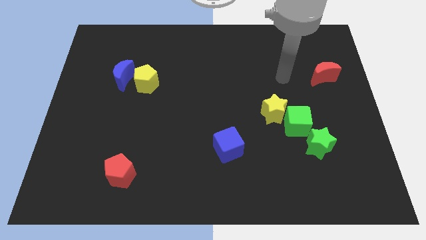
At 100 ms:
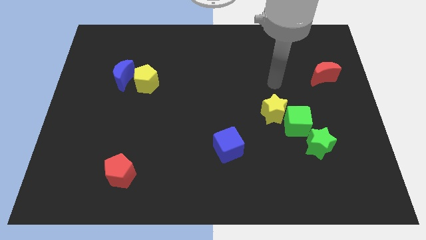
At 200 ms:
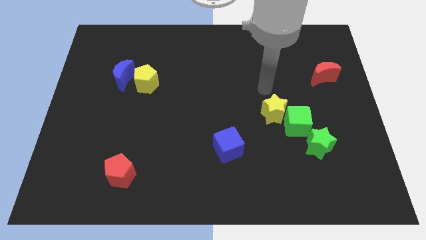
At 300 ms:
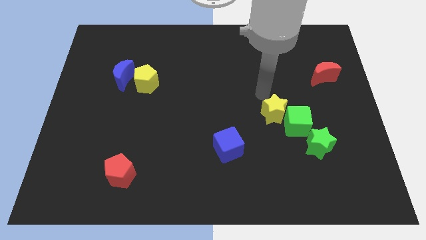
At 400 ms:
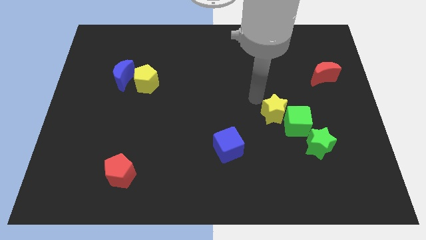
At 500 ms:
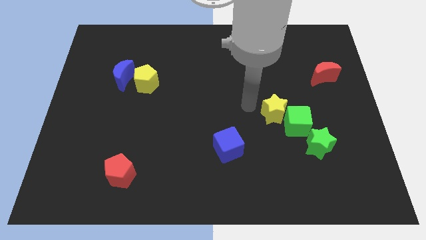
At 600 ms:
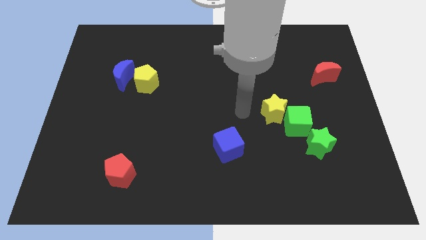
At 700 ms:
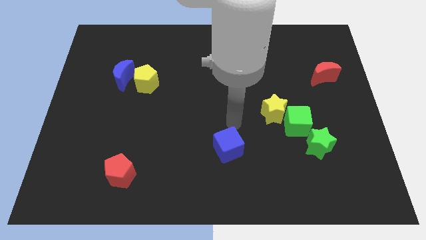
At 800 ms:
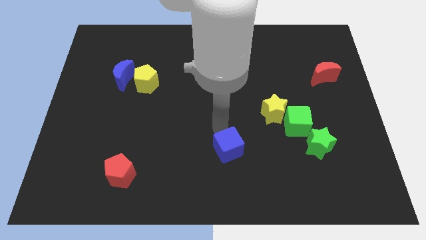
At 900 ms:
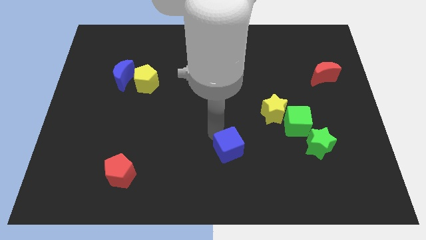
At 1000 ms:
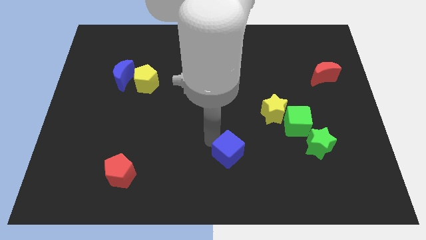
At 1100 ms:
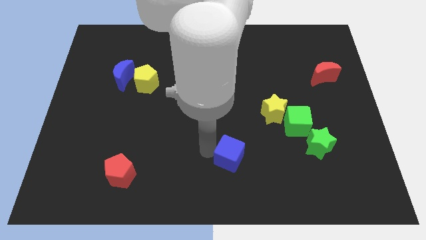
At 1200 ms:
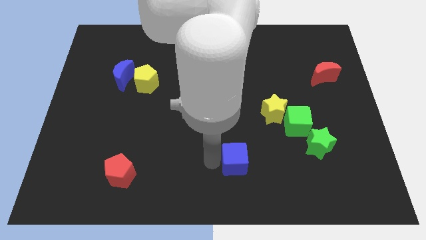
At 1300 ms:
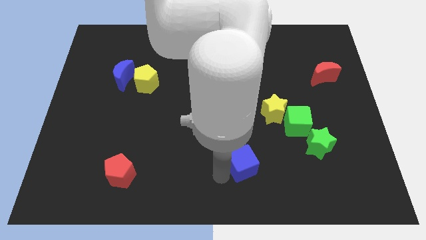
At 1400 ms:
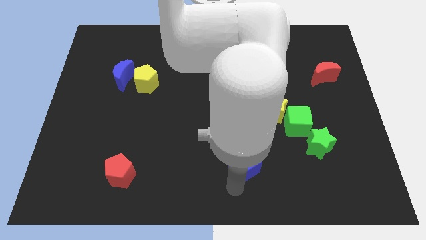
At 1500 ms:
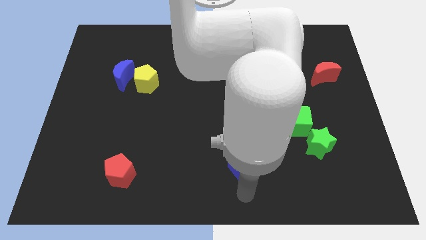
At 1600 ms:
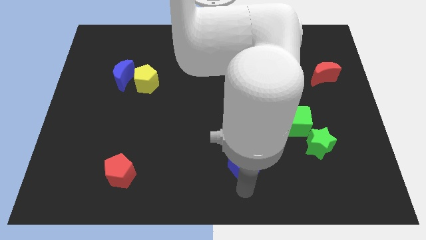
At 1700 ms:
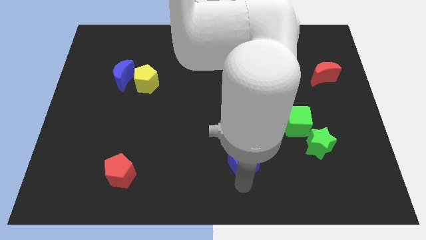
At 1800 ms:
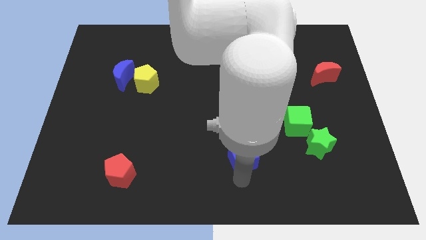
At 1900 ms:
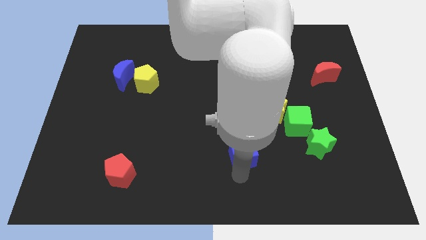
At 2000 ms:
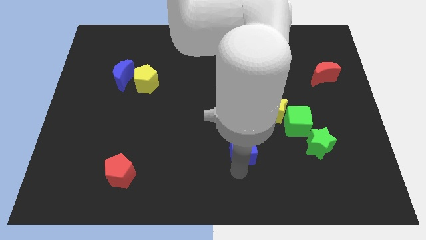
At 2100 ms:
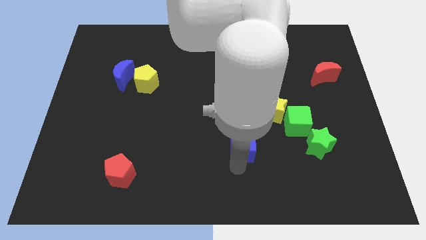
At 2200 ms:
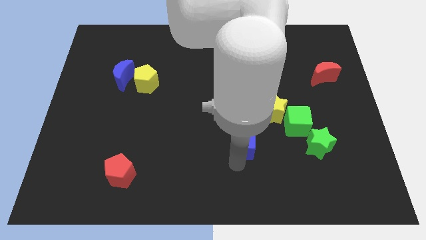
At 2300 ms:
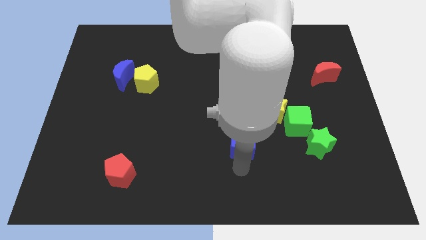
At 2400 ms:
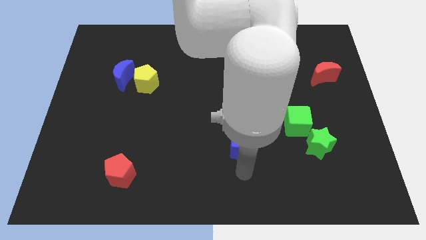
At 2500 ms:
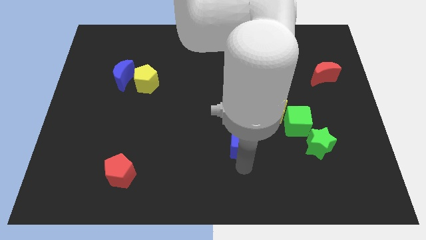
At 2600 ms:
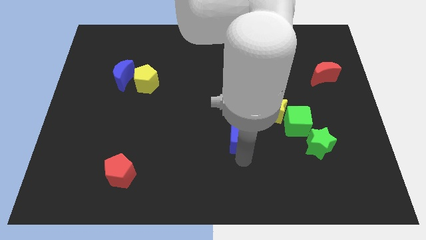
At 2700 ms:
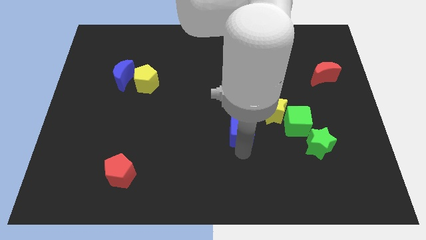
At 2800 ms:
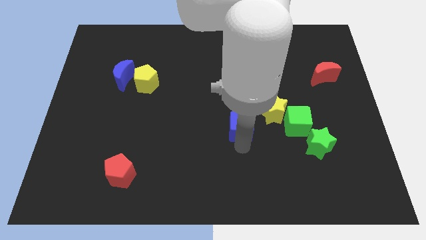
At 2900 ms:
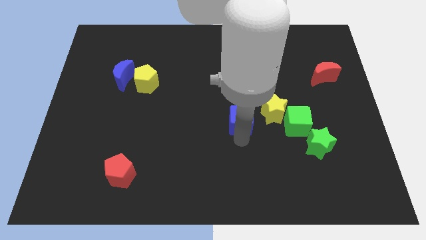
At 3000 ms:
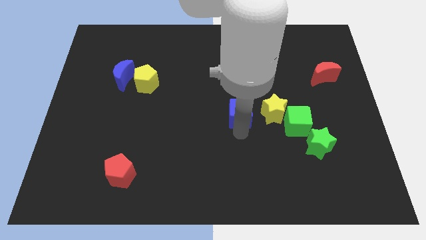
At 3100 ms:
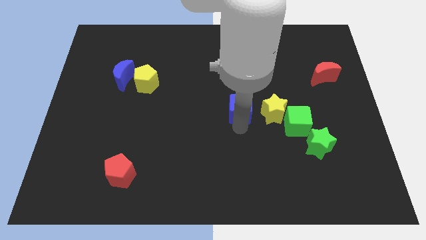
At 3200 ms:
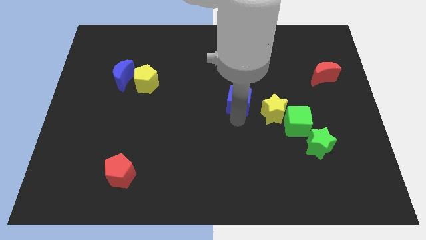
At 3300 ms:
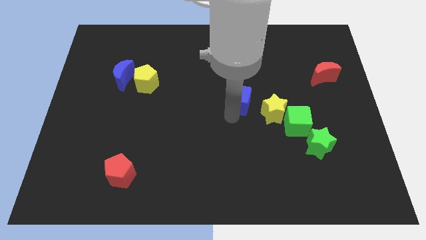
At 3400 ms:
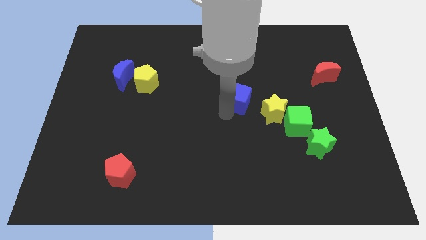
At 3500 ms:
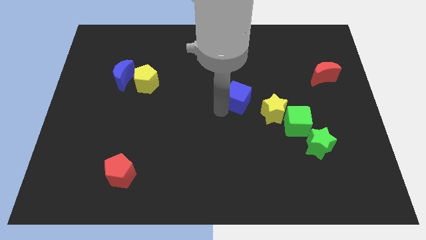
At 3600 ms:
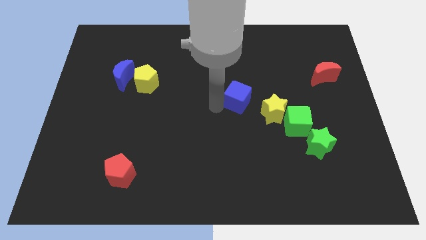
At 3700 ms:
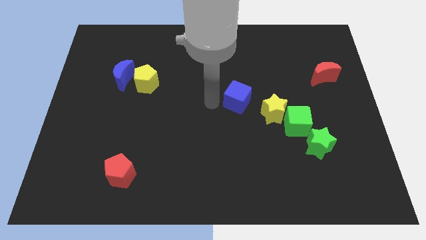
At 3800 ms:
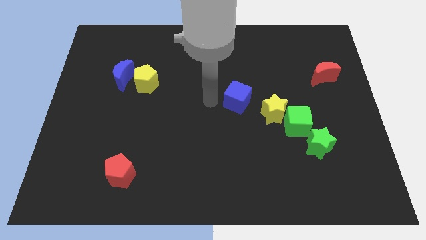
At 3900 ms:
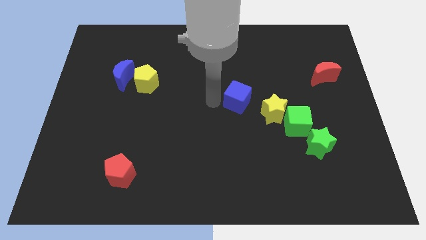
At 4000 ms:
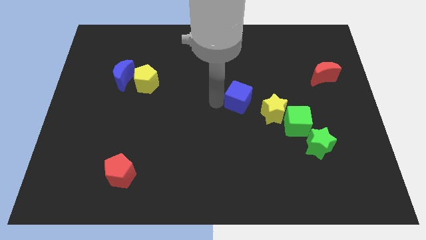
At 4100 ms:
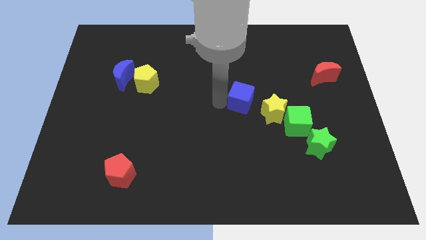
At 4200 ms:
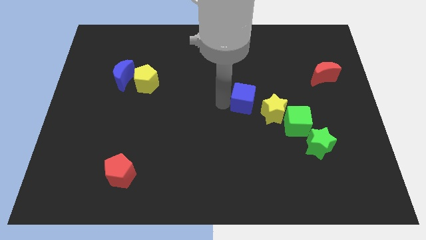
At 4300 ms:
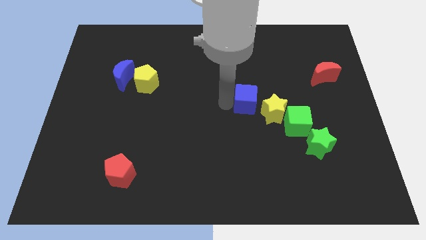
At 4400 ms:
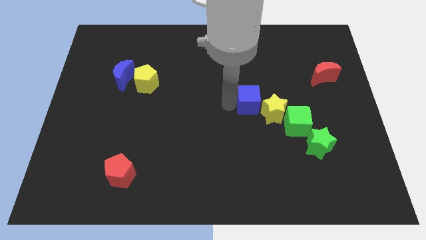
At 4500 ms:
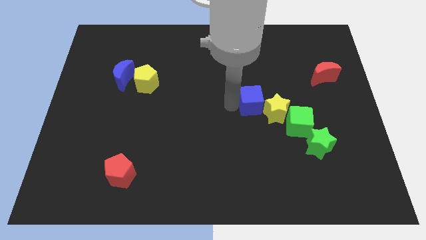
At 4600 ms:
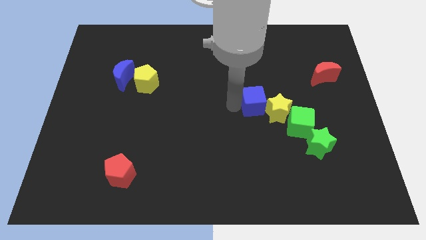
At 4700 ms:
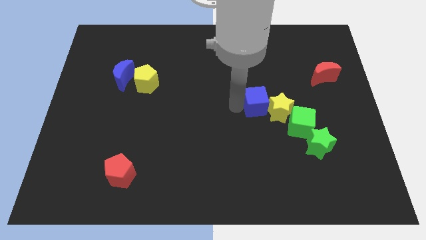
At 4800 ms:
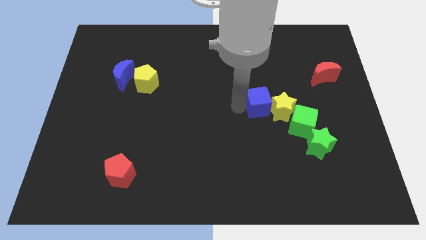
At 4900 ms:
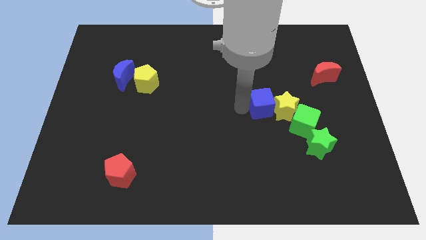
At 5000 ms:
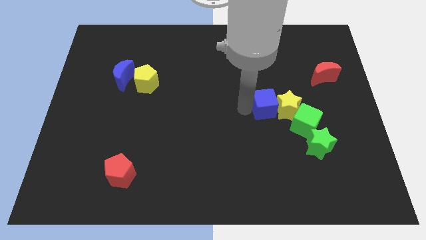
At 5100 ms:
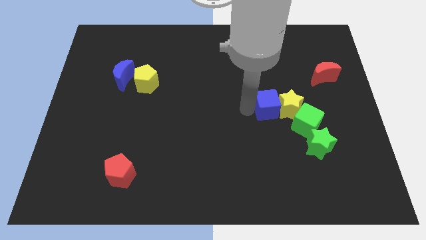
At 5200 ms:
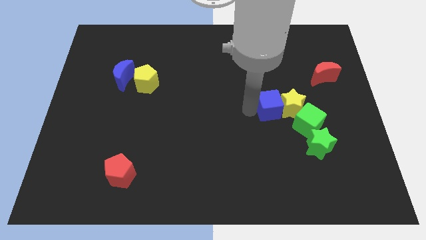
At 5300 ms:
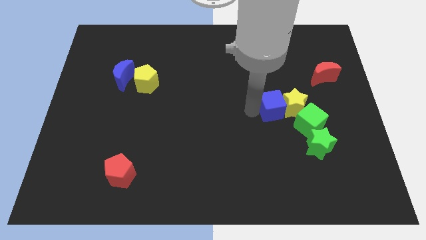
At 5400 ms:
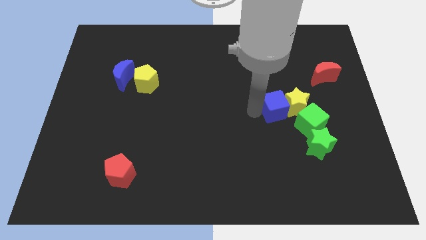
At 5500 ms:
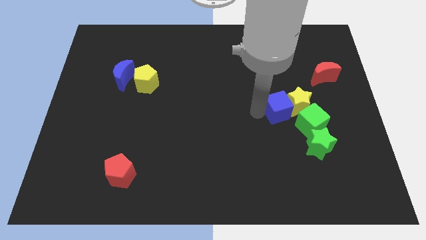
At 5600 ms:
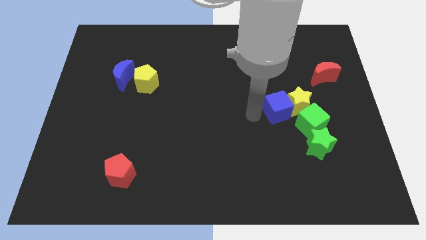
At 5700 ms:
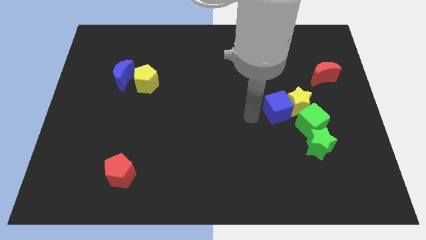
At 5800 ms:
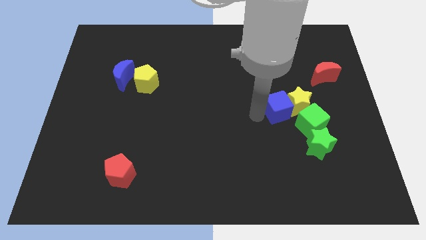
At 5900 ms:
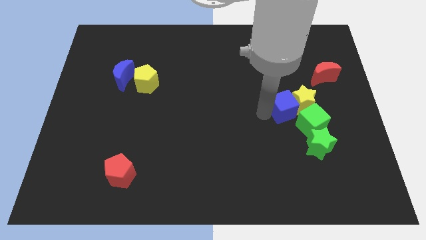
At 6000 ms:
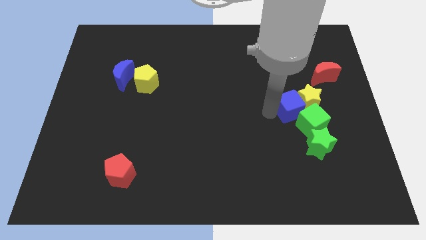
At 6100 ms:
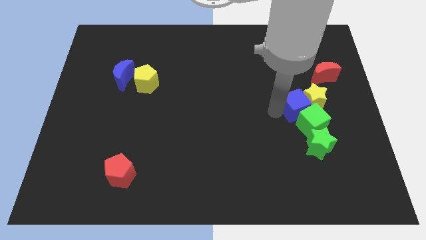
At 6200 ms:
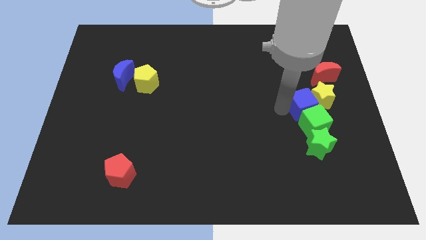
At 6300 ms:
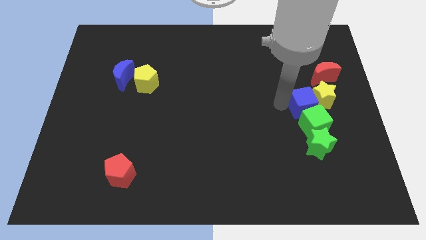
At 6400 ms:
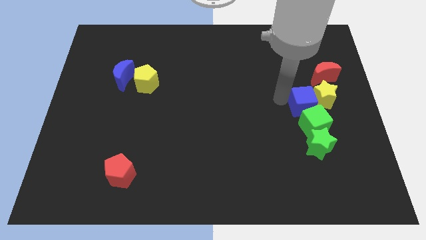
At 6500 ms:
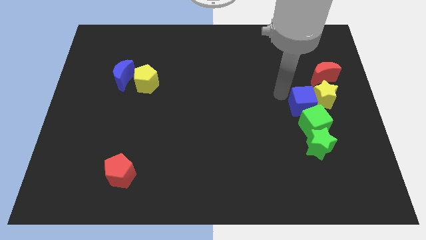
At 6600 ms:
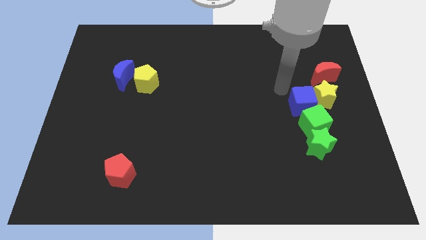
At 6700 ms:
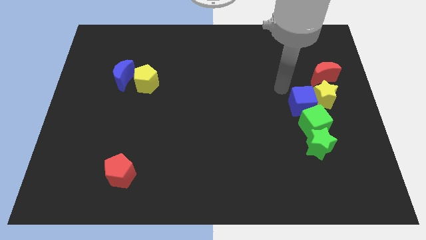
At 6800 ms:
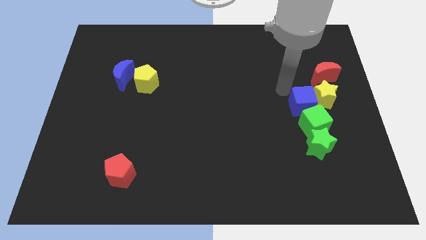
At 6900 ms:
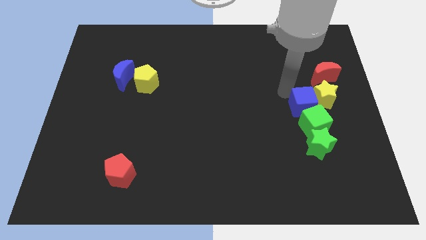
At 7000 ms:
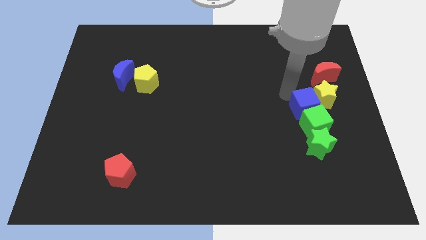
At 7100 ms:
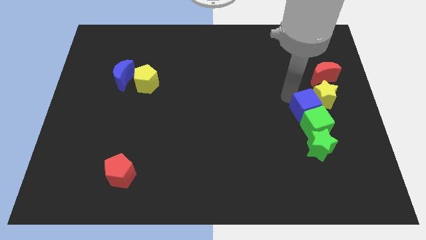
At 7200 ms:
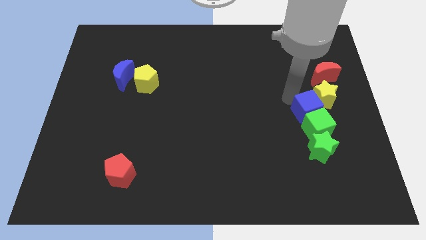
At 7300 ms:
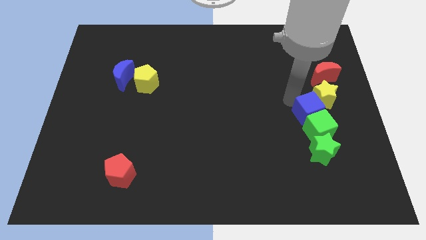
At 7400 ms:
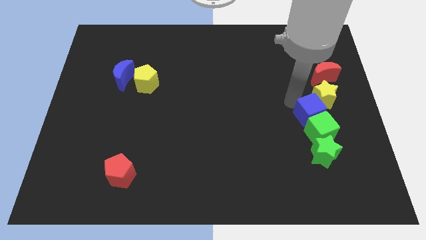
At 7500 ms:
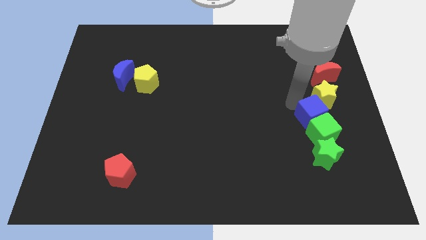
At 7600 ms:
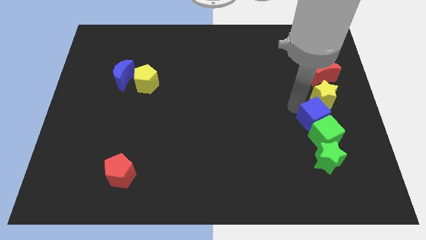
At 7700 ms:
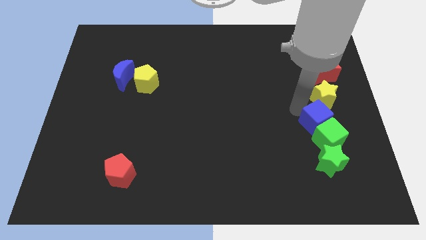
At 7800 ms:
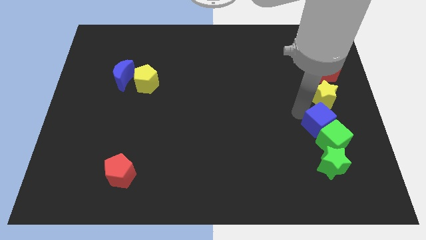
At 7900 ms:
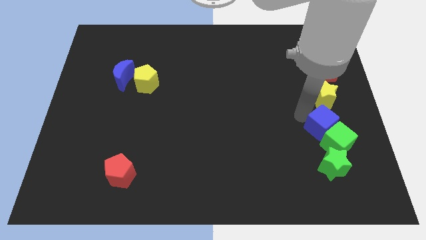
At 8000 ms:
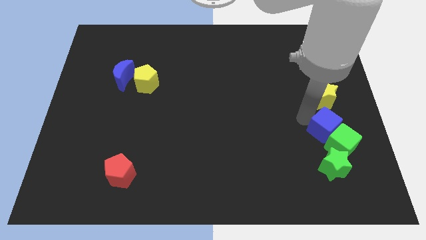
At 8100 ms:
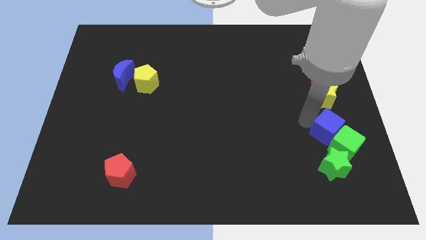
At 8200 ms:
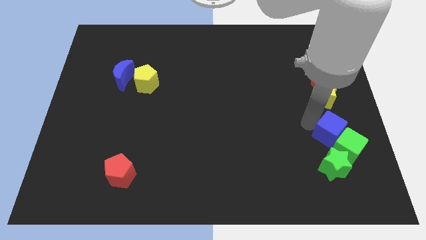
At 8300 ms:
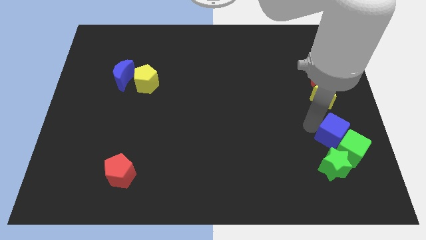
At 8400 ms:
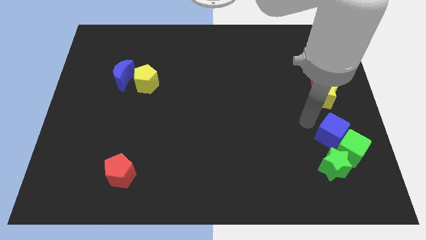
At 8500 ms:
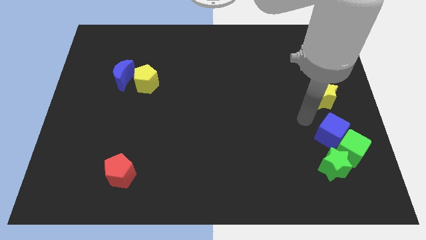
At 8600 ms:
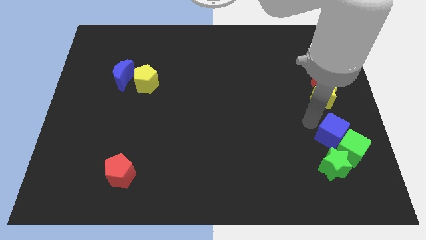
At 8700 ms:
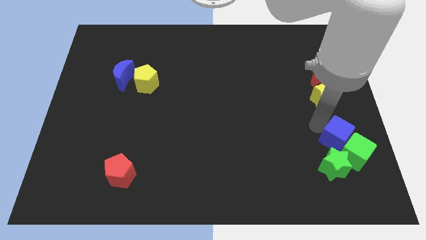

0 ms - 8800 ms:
put the blue cube to the top right side of the green star
